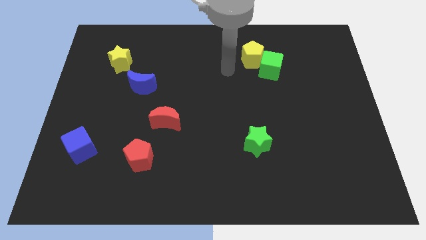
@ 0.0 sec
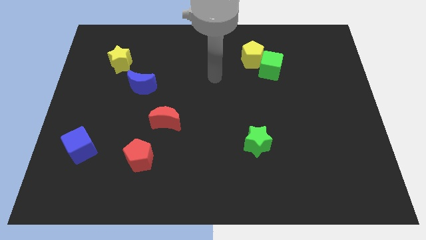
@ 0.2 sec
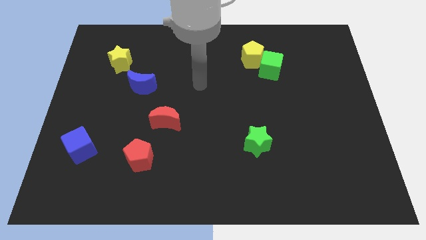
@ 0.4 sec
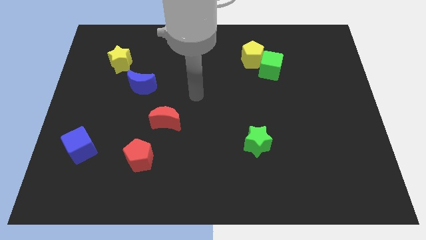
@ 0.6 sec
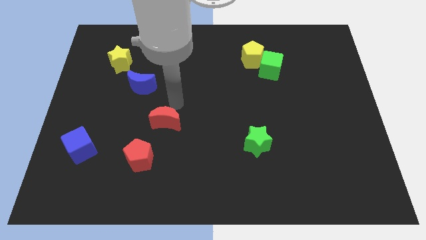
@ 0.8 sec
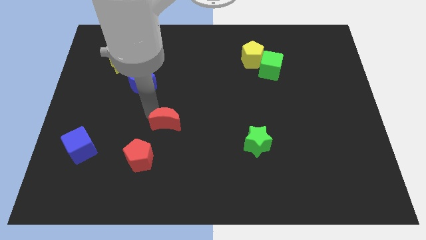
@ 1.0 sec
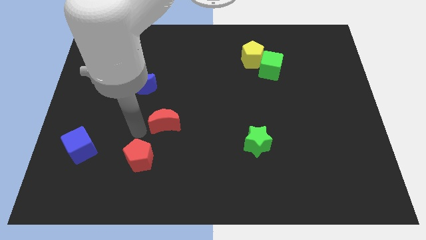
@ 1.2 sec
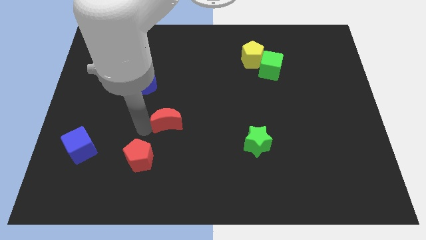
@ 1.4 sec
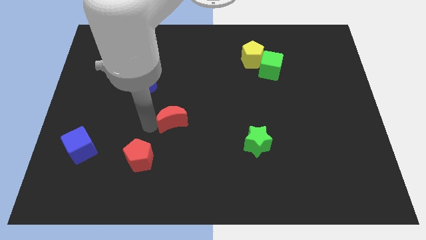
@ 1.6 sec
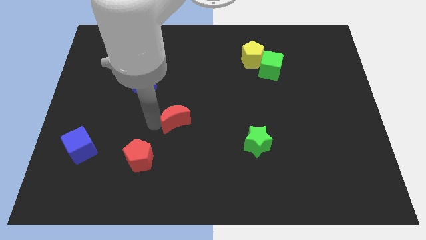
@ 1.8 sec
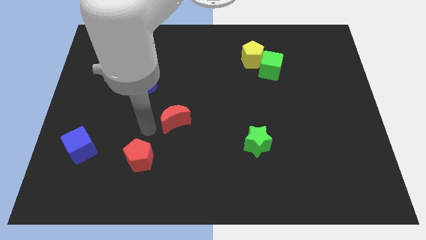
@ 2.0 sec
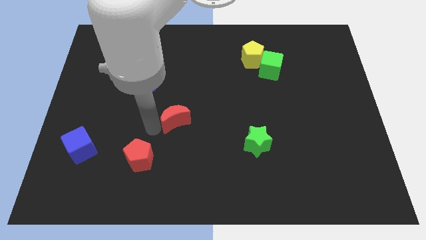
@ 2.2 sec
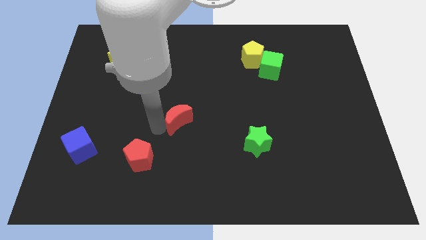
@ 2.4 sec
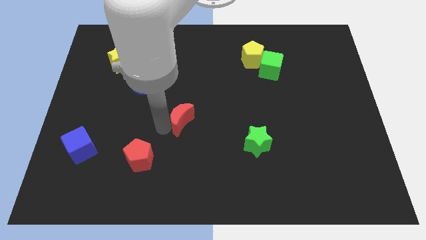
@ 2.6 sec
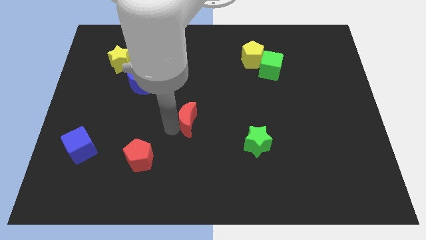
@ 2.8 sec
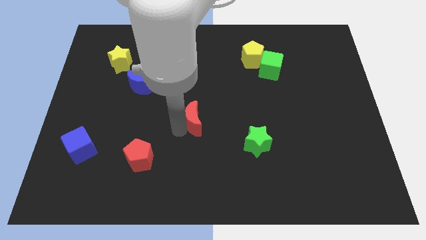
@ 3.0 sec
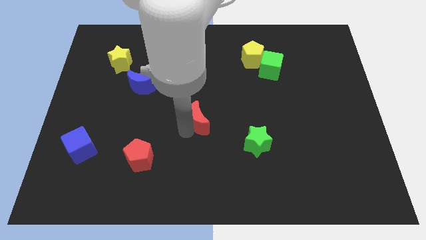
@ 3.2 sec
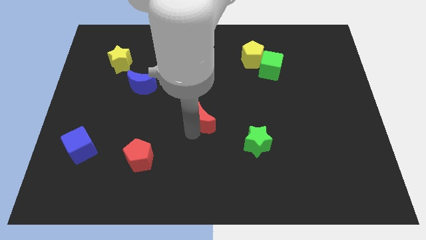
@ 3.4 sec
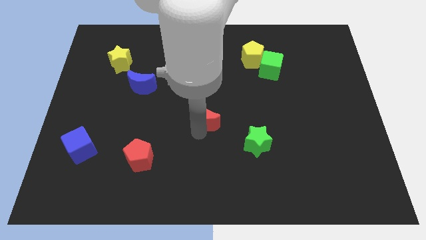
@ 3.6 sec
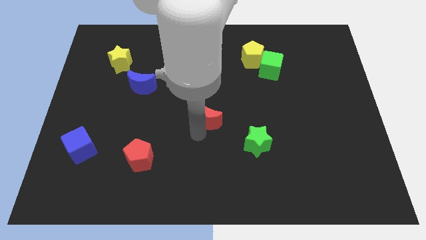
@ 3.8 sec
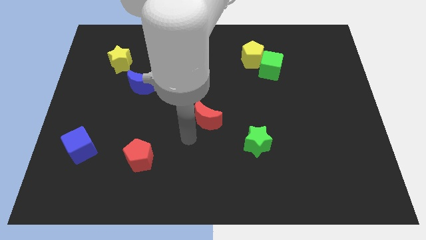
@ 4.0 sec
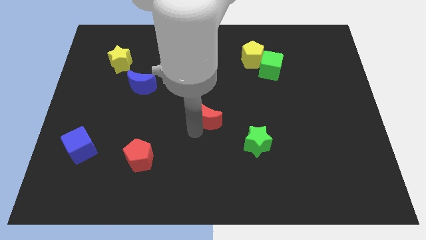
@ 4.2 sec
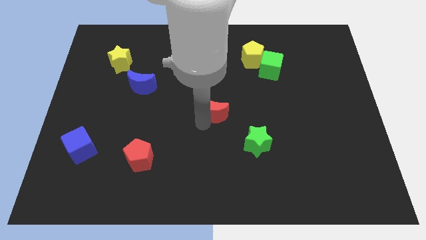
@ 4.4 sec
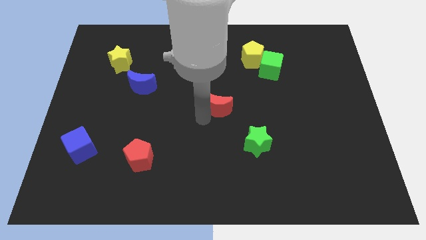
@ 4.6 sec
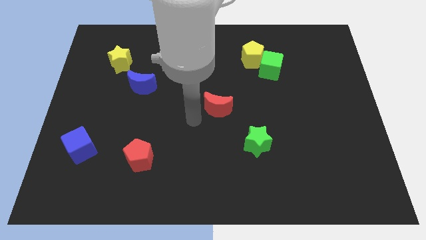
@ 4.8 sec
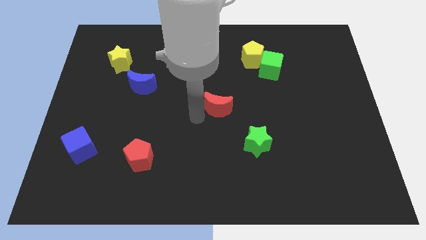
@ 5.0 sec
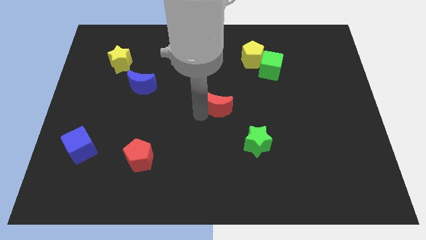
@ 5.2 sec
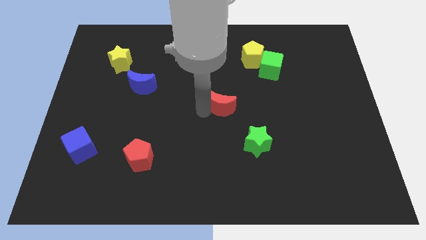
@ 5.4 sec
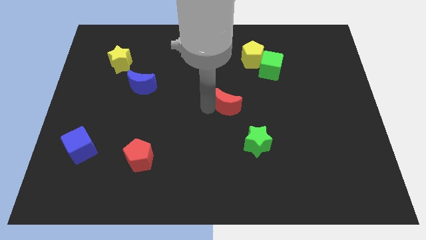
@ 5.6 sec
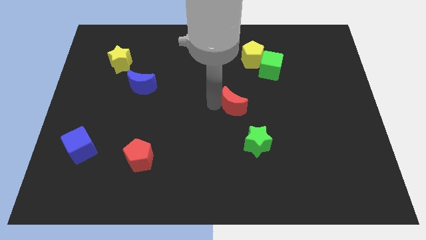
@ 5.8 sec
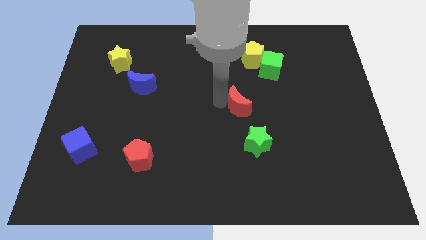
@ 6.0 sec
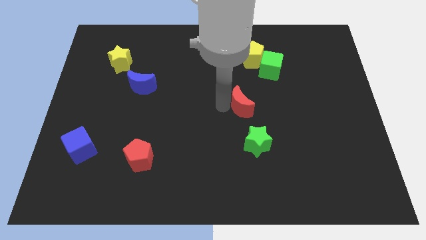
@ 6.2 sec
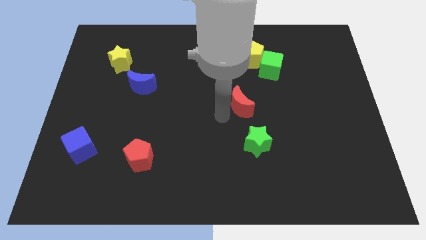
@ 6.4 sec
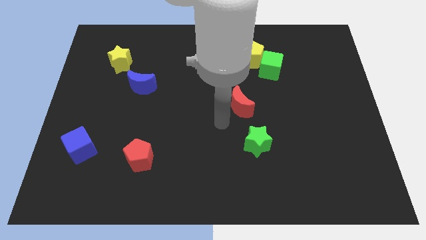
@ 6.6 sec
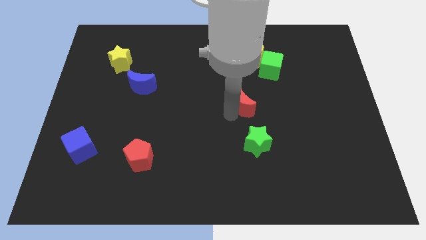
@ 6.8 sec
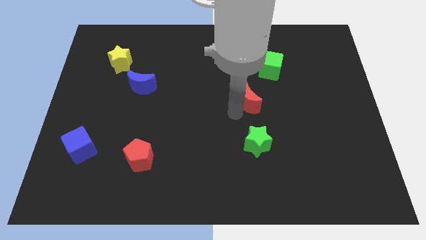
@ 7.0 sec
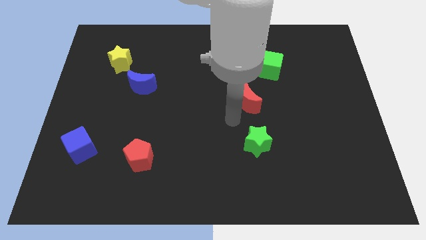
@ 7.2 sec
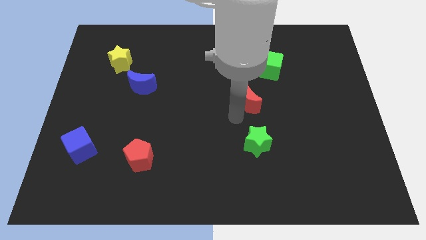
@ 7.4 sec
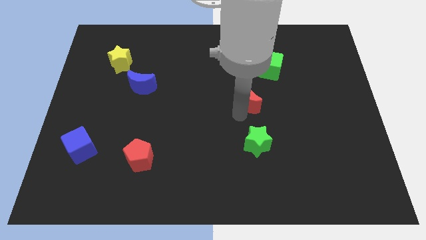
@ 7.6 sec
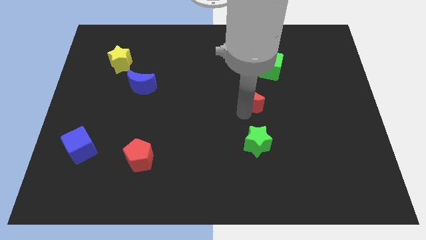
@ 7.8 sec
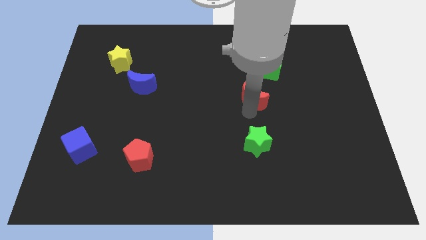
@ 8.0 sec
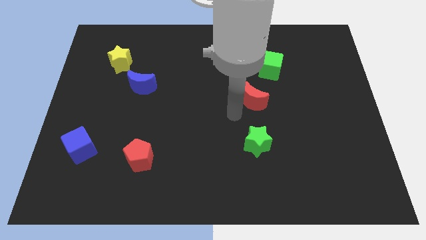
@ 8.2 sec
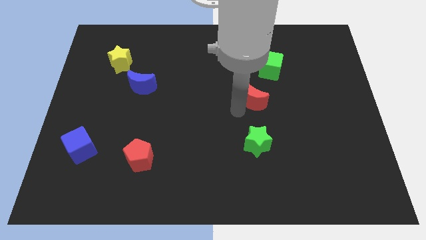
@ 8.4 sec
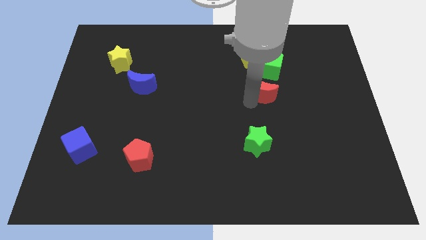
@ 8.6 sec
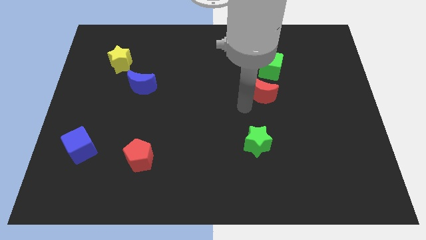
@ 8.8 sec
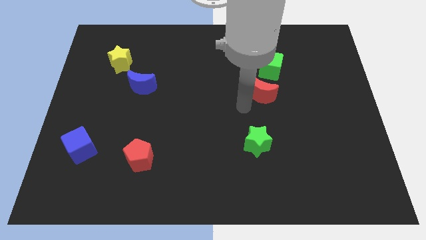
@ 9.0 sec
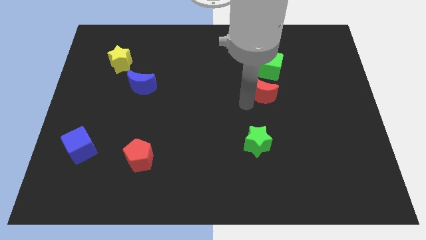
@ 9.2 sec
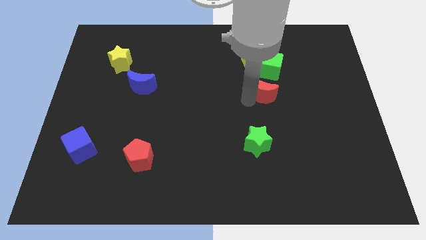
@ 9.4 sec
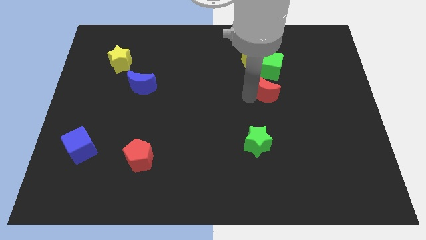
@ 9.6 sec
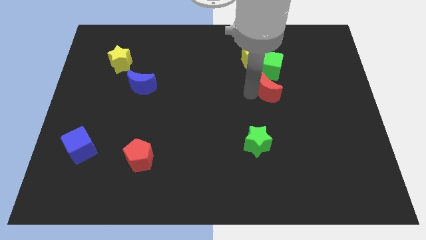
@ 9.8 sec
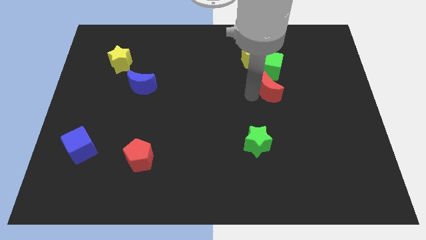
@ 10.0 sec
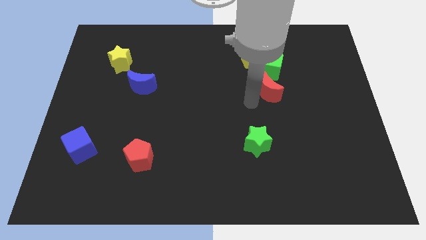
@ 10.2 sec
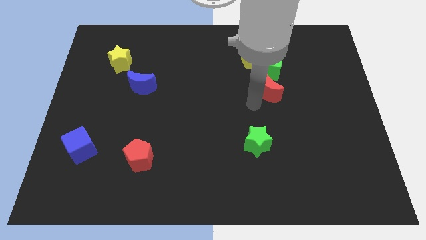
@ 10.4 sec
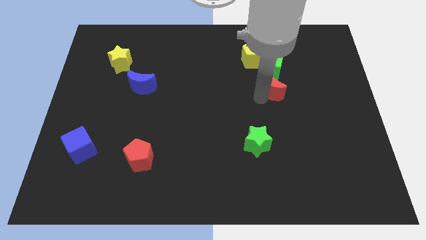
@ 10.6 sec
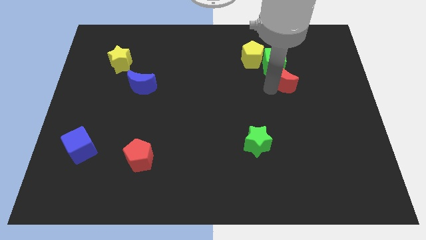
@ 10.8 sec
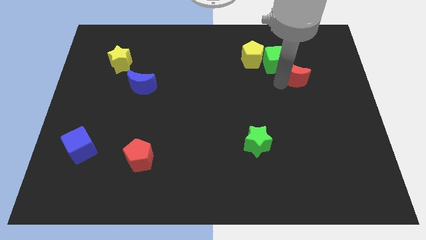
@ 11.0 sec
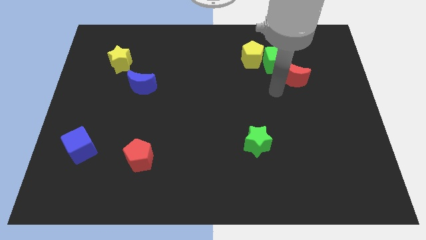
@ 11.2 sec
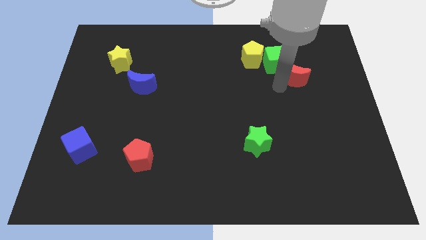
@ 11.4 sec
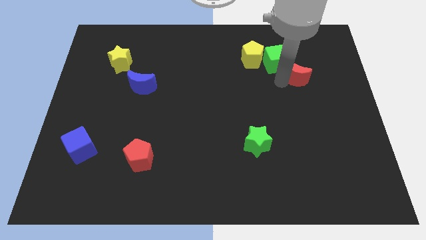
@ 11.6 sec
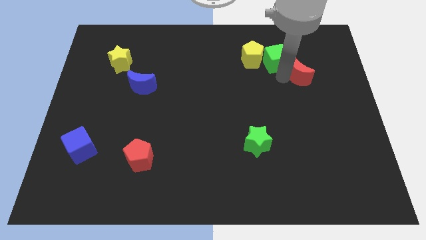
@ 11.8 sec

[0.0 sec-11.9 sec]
slide the red moon to the right of the green cube

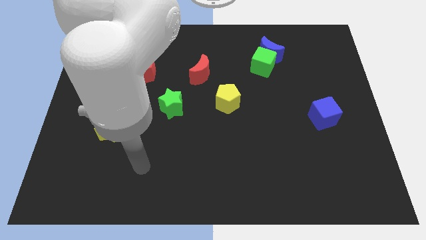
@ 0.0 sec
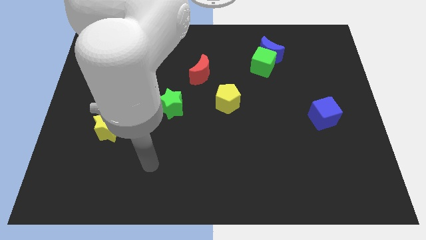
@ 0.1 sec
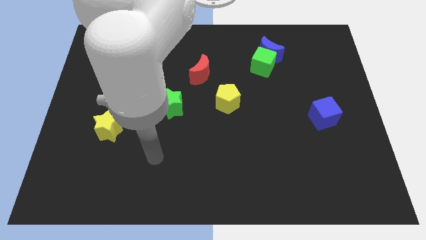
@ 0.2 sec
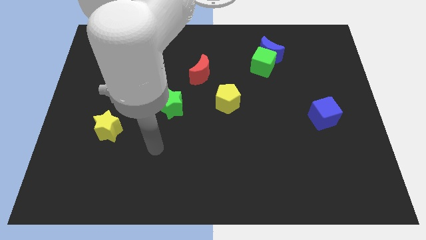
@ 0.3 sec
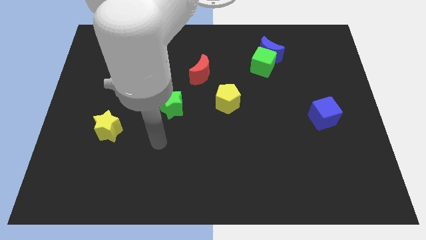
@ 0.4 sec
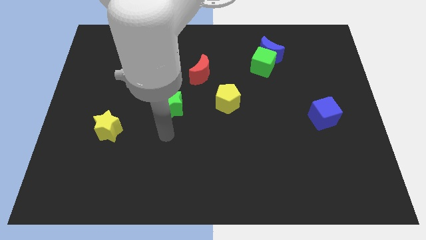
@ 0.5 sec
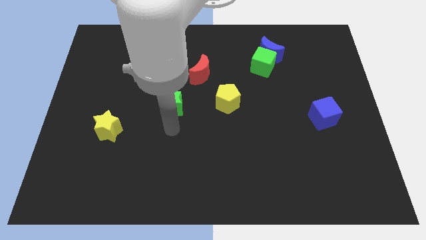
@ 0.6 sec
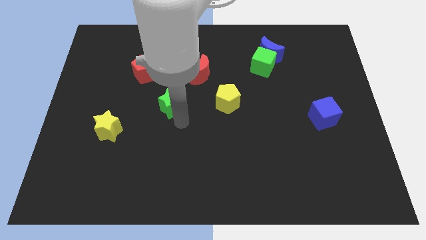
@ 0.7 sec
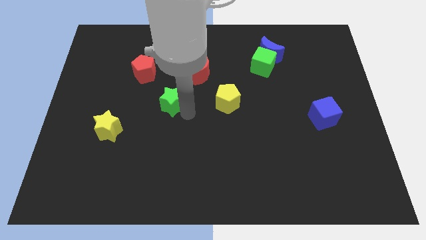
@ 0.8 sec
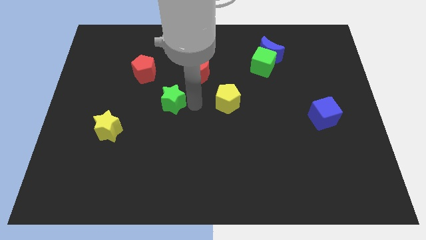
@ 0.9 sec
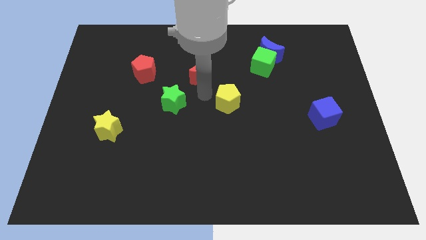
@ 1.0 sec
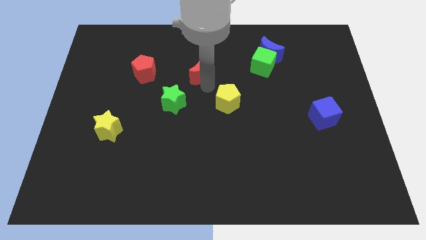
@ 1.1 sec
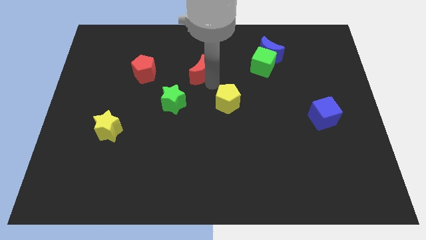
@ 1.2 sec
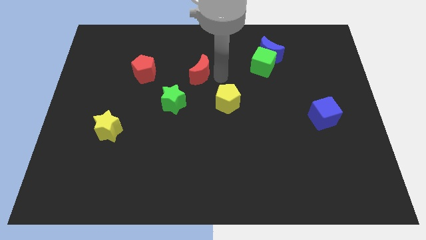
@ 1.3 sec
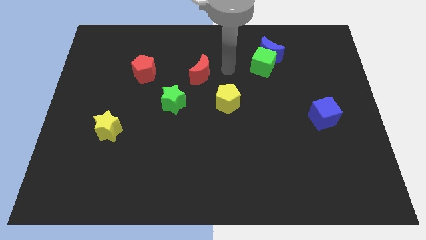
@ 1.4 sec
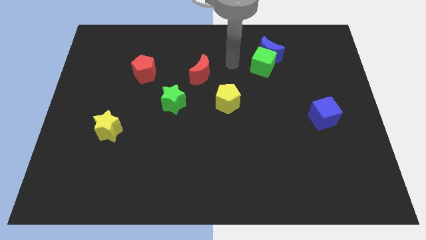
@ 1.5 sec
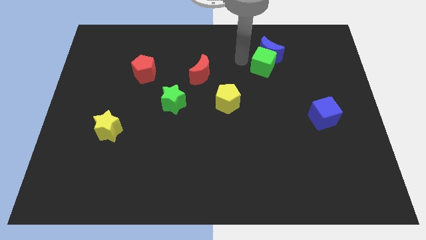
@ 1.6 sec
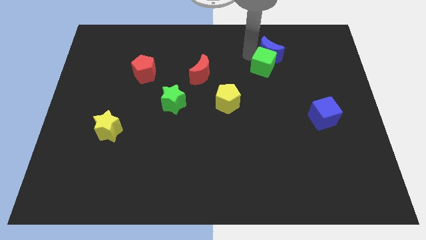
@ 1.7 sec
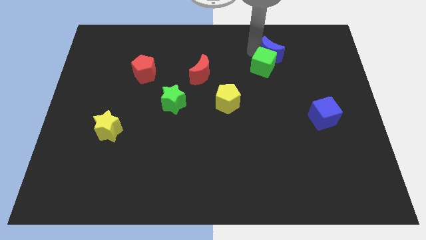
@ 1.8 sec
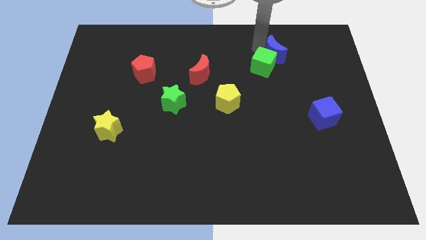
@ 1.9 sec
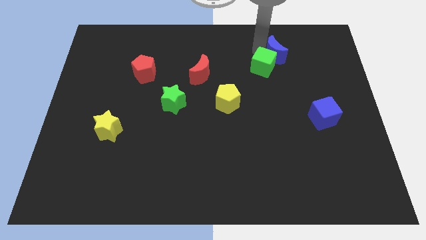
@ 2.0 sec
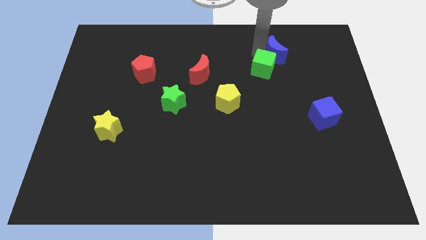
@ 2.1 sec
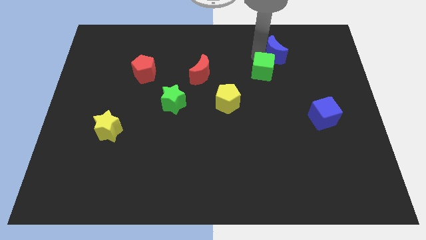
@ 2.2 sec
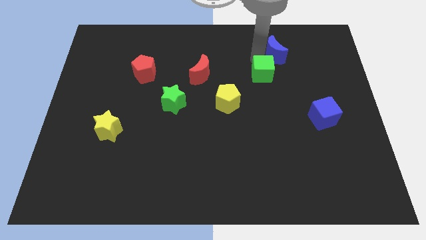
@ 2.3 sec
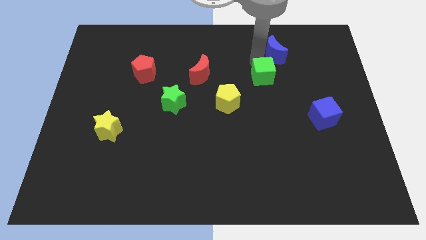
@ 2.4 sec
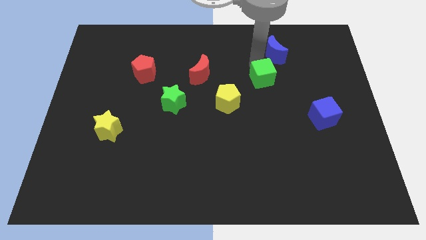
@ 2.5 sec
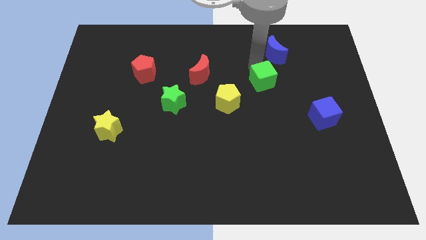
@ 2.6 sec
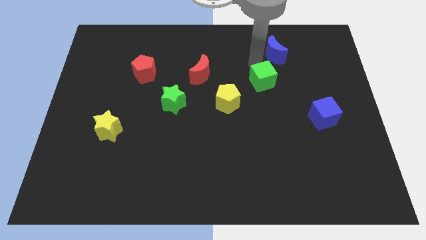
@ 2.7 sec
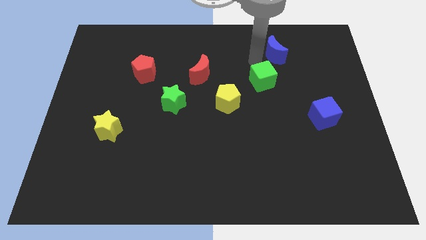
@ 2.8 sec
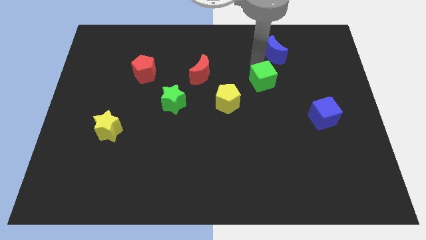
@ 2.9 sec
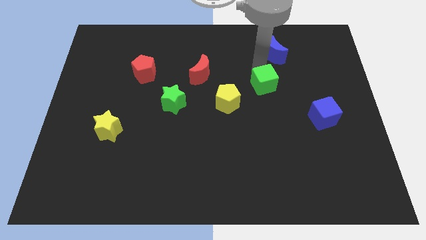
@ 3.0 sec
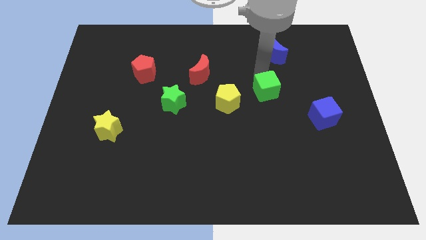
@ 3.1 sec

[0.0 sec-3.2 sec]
push the green cube right of the yellow pentagon
